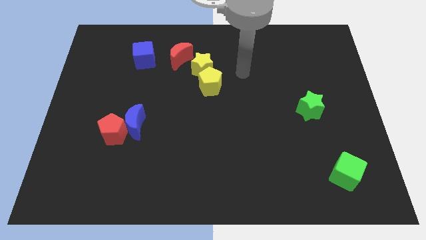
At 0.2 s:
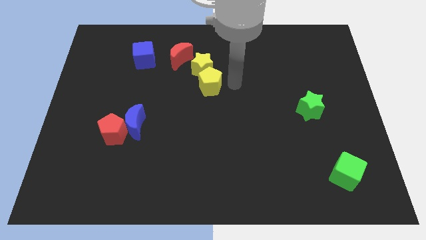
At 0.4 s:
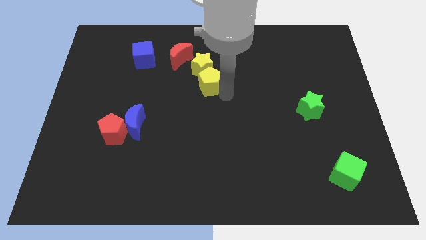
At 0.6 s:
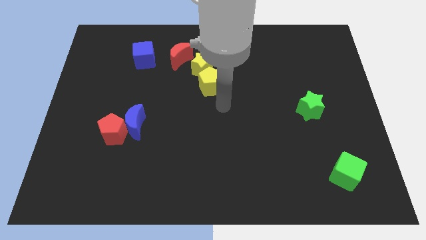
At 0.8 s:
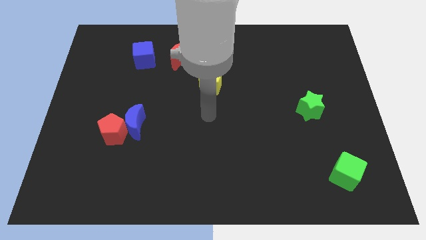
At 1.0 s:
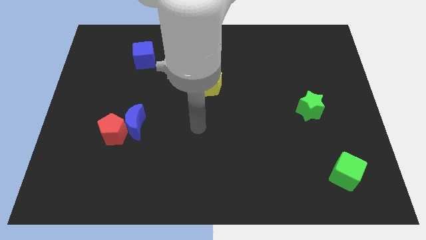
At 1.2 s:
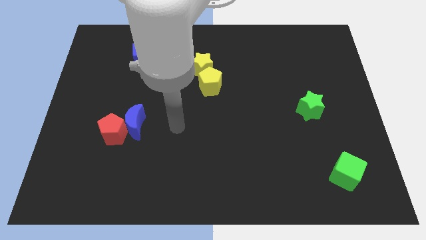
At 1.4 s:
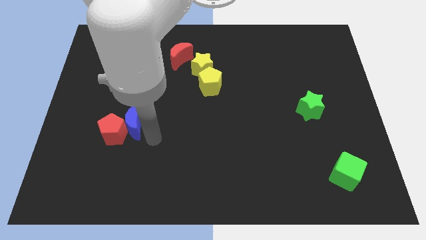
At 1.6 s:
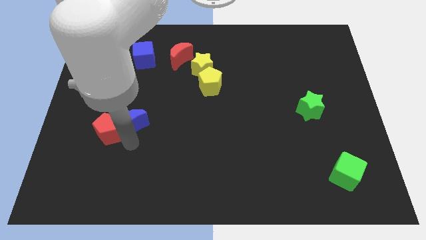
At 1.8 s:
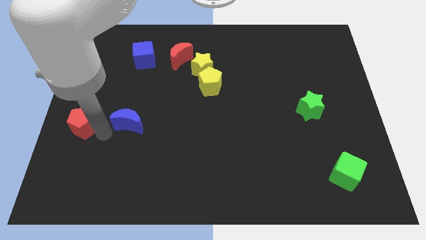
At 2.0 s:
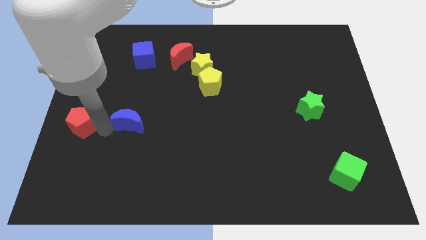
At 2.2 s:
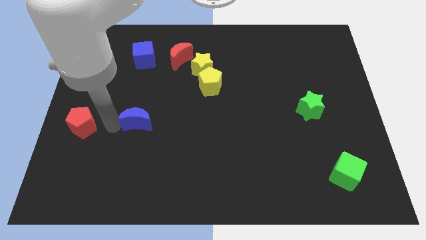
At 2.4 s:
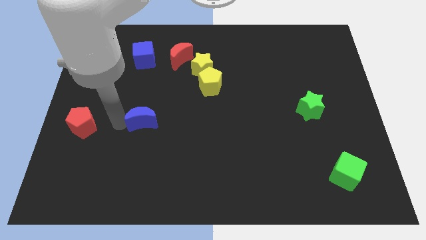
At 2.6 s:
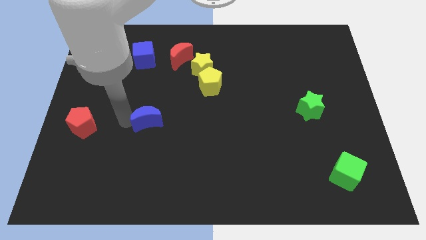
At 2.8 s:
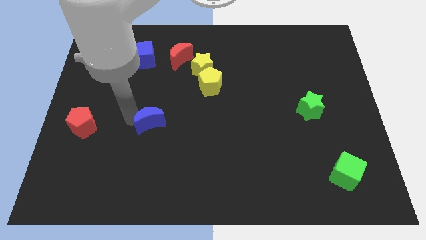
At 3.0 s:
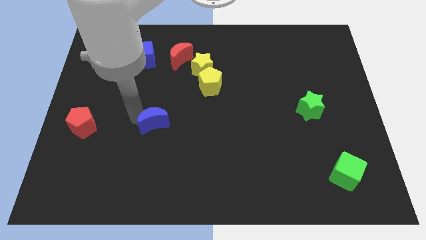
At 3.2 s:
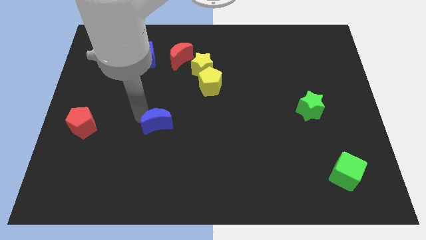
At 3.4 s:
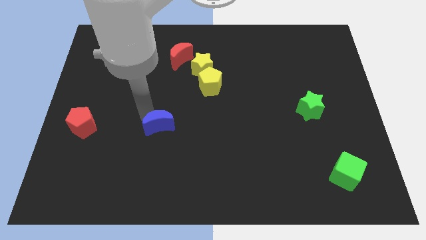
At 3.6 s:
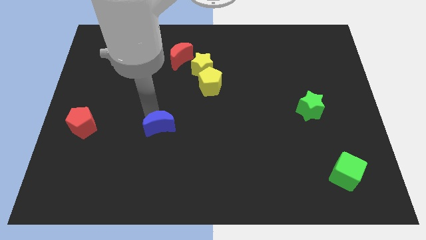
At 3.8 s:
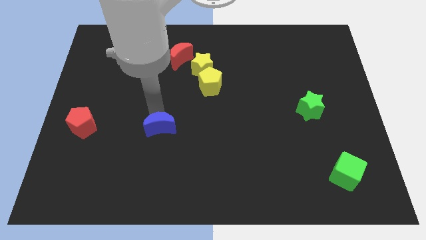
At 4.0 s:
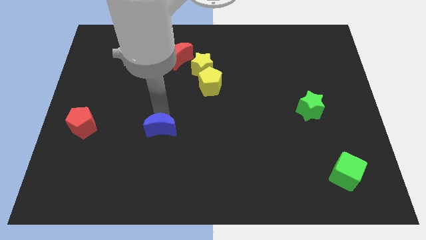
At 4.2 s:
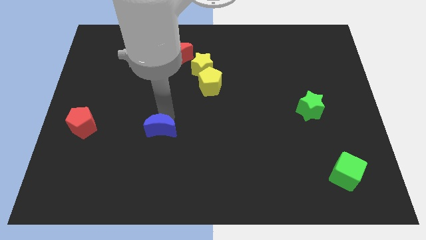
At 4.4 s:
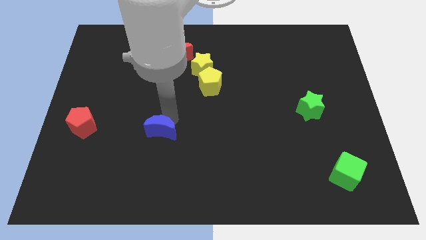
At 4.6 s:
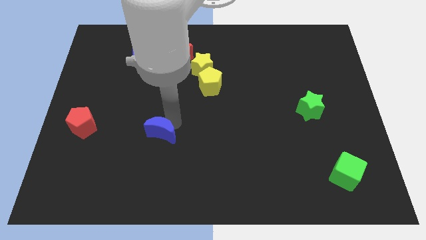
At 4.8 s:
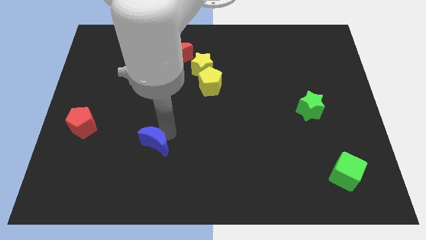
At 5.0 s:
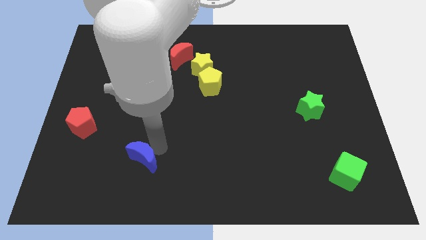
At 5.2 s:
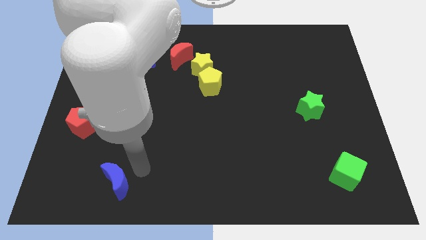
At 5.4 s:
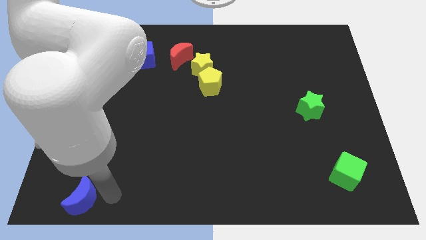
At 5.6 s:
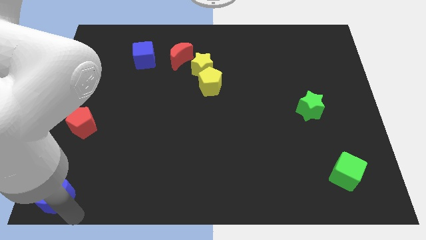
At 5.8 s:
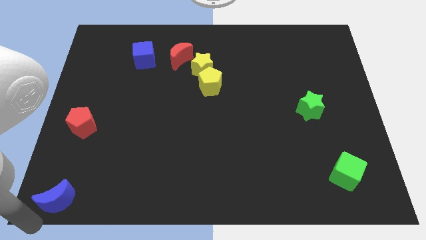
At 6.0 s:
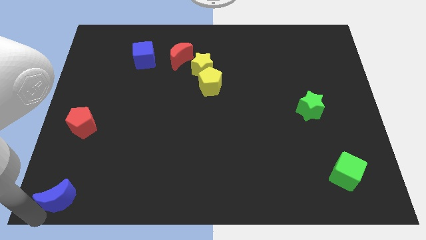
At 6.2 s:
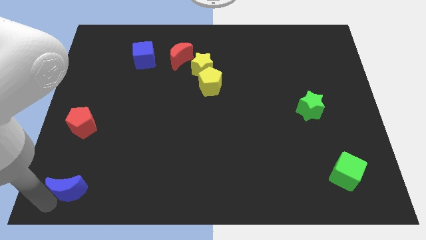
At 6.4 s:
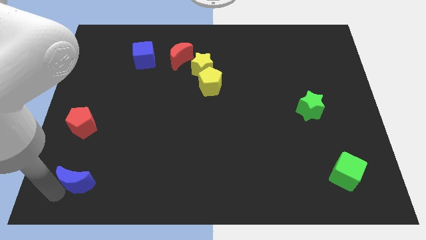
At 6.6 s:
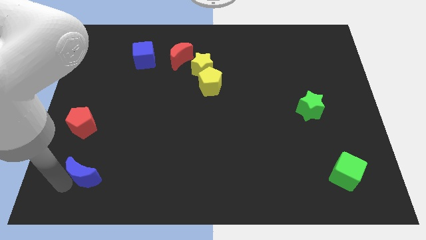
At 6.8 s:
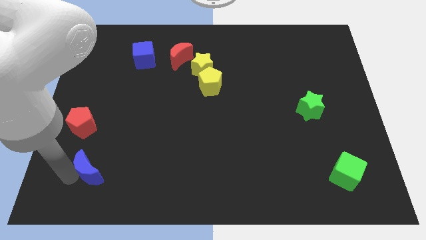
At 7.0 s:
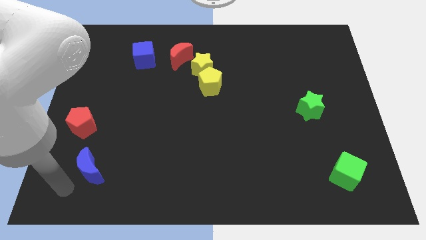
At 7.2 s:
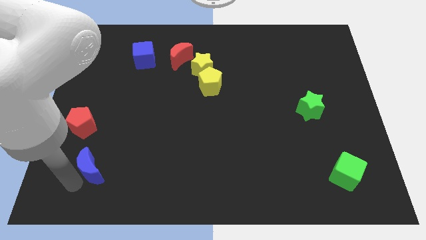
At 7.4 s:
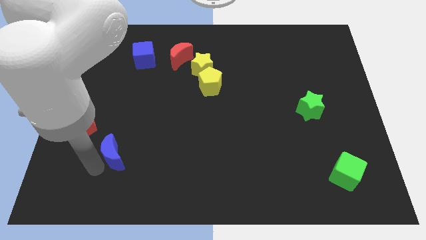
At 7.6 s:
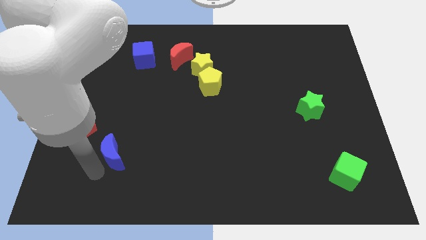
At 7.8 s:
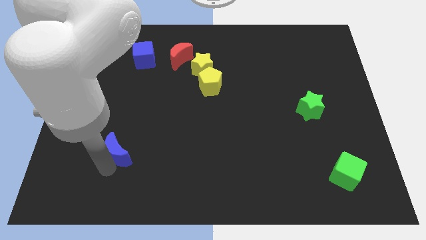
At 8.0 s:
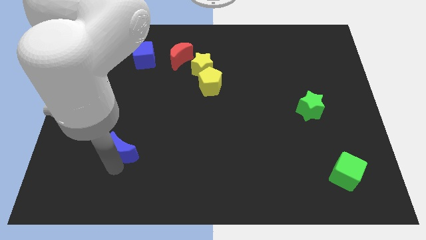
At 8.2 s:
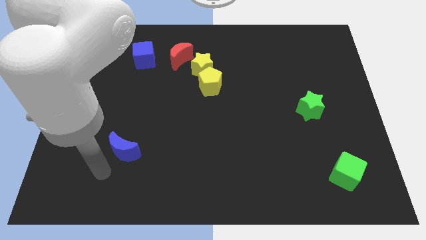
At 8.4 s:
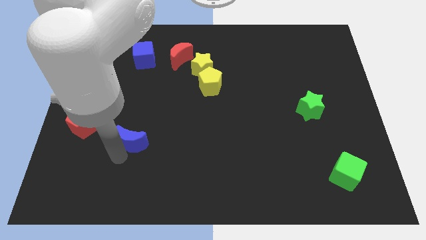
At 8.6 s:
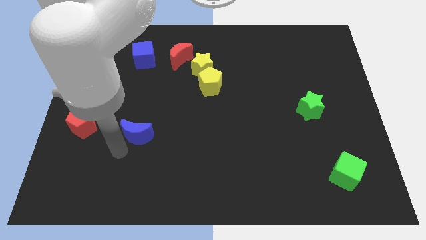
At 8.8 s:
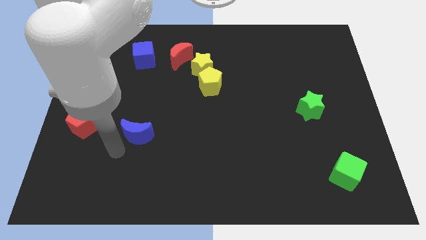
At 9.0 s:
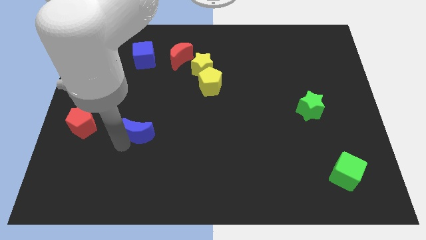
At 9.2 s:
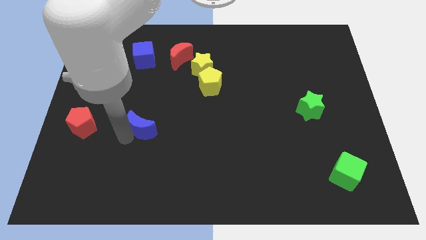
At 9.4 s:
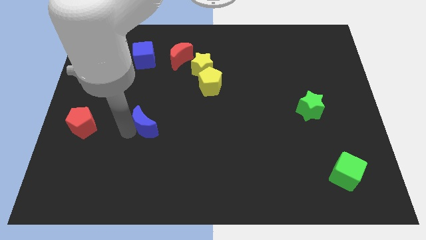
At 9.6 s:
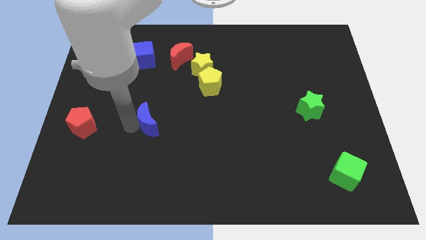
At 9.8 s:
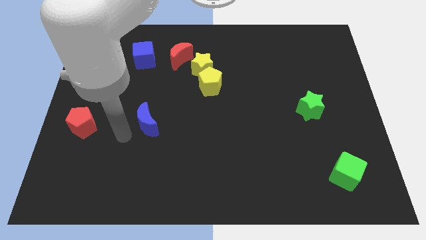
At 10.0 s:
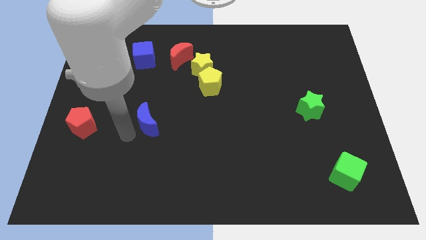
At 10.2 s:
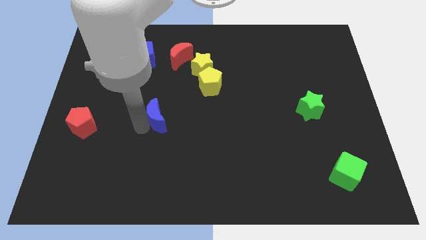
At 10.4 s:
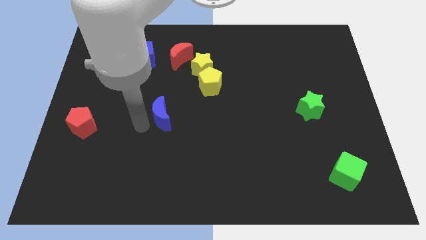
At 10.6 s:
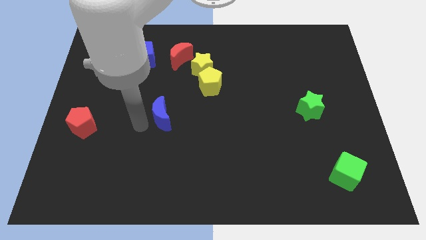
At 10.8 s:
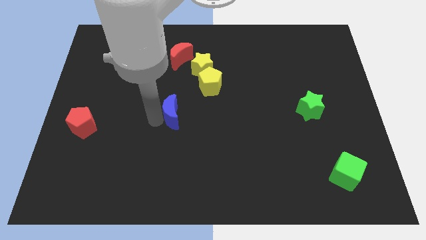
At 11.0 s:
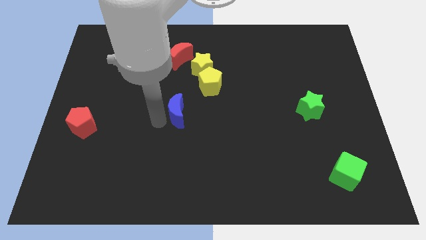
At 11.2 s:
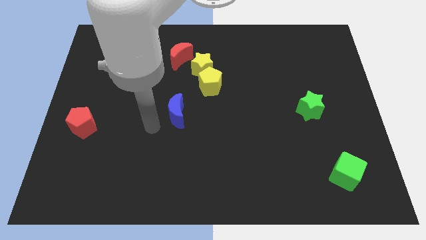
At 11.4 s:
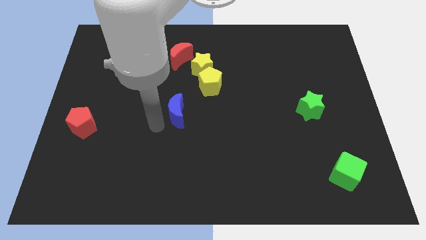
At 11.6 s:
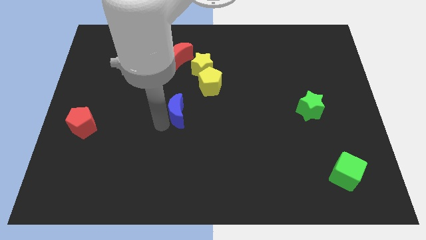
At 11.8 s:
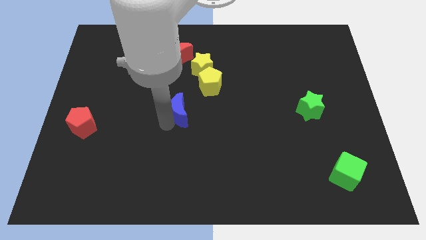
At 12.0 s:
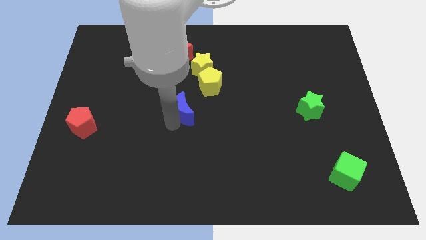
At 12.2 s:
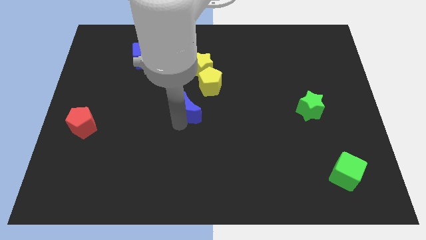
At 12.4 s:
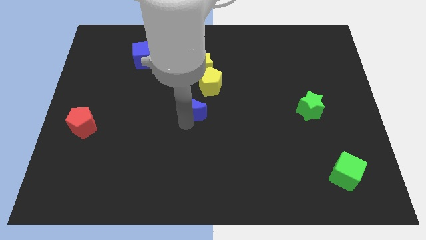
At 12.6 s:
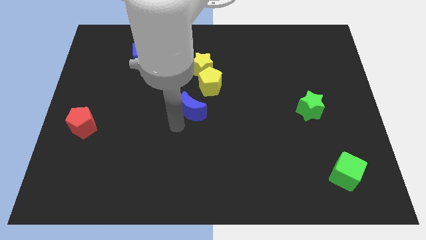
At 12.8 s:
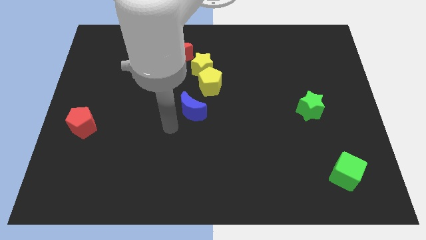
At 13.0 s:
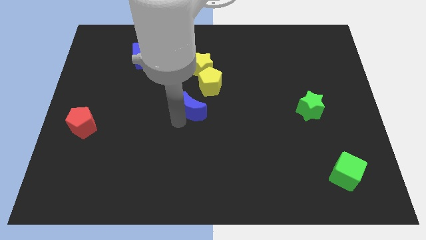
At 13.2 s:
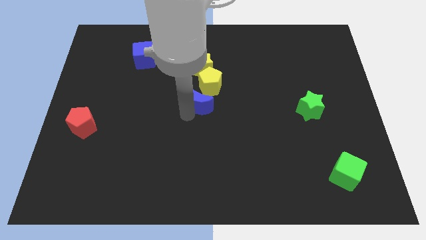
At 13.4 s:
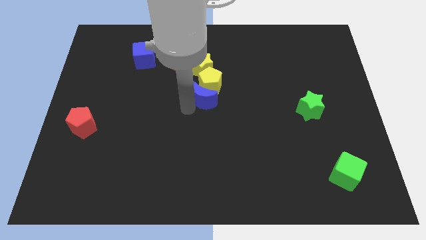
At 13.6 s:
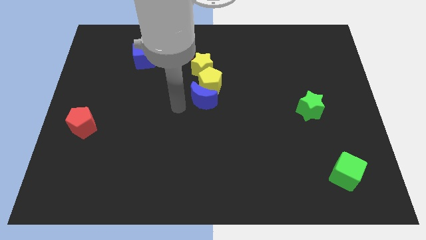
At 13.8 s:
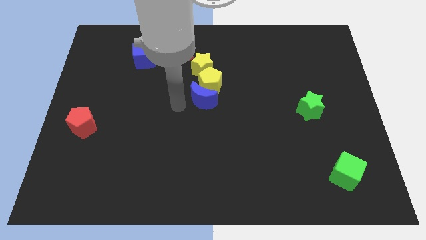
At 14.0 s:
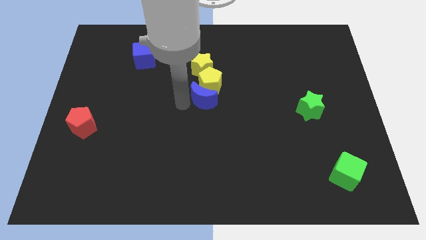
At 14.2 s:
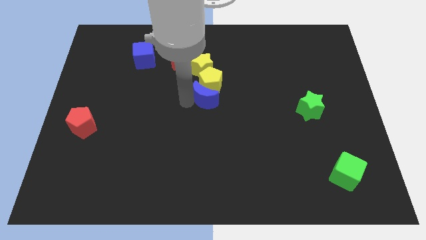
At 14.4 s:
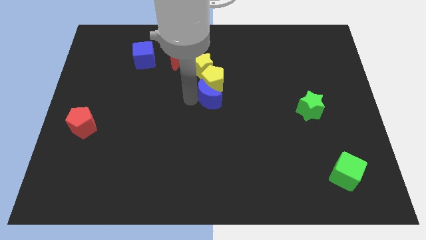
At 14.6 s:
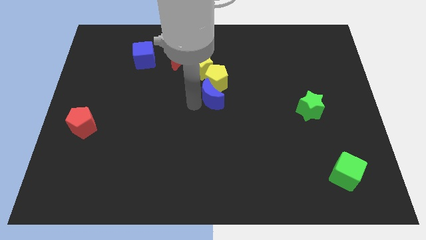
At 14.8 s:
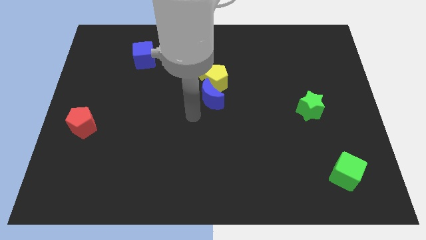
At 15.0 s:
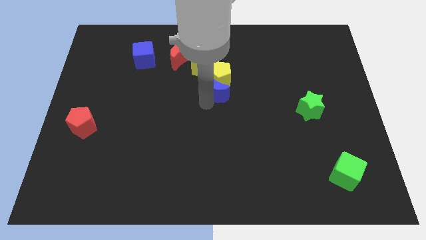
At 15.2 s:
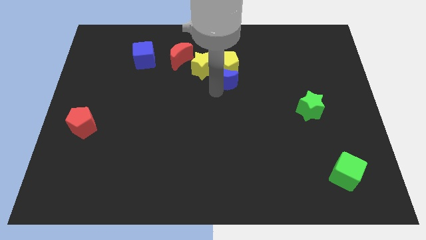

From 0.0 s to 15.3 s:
put the blue moon just right of the yellow star
